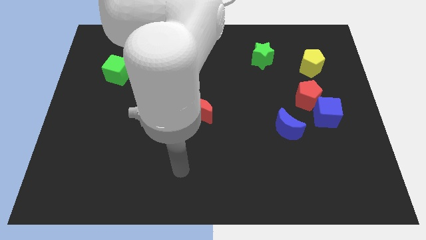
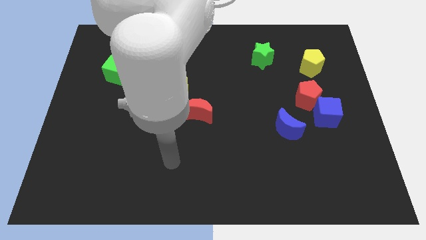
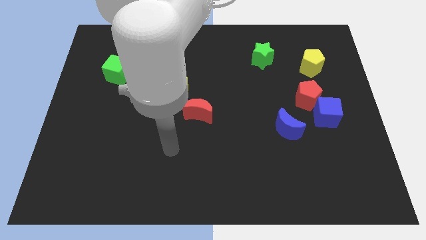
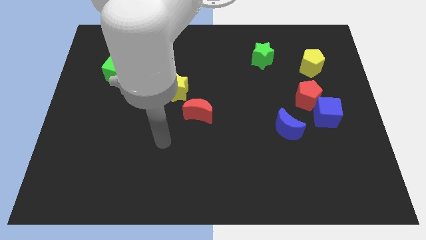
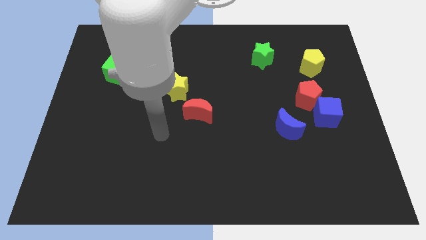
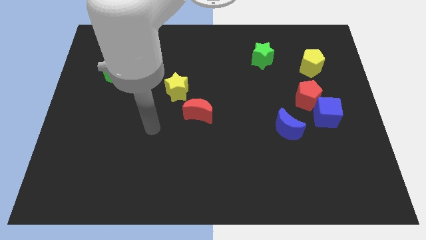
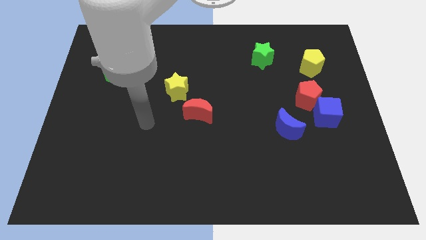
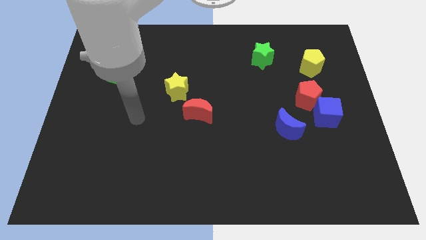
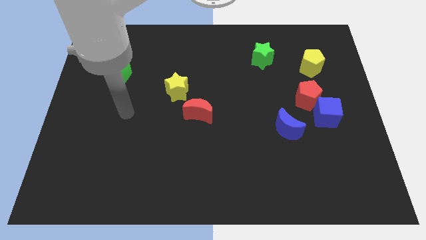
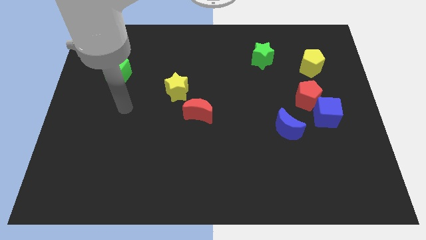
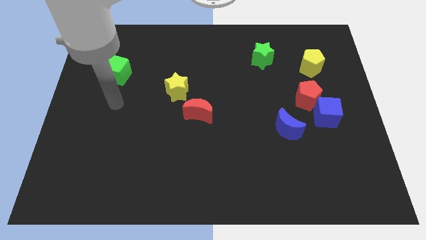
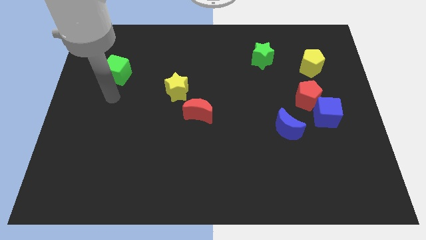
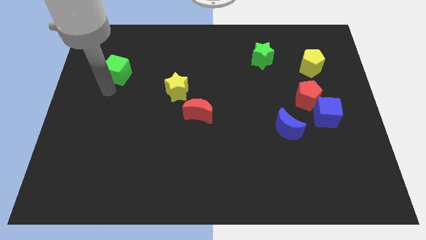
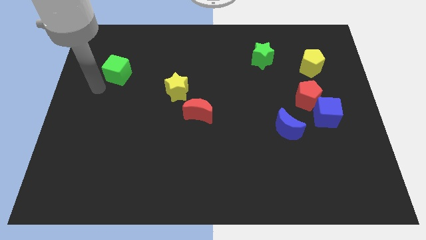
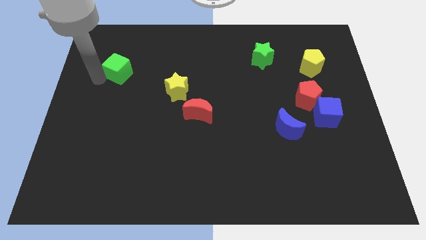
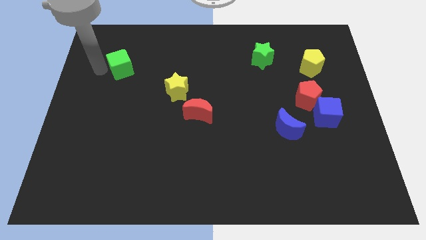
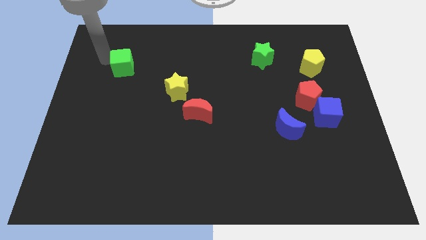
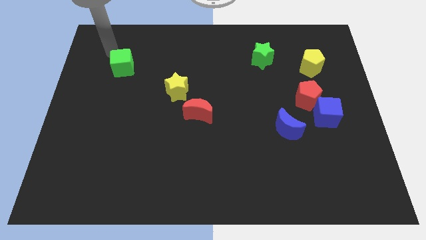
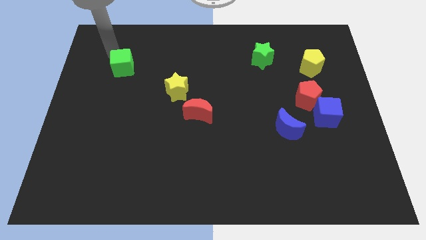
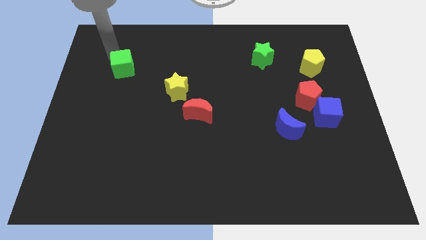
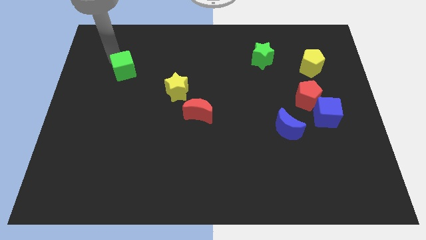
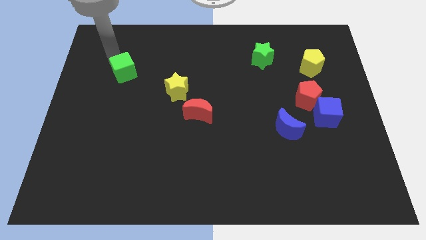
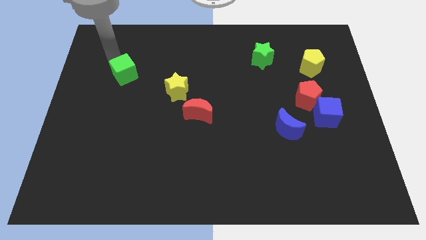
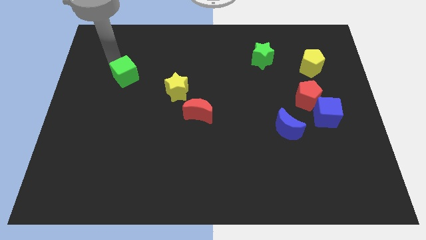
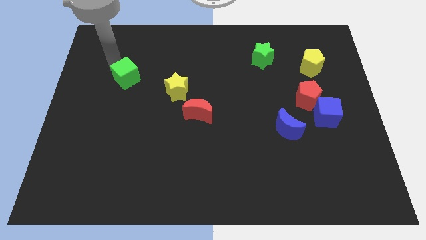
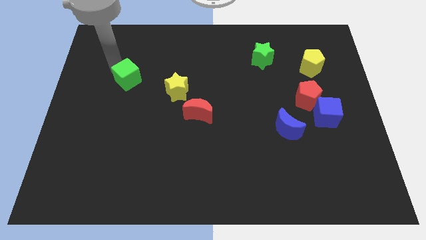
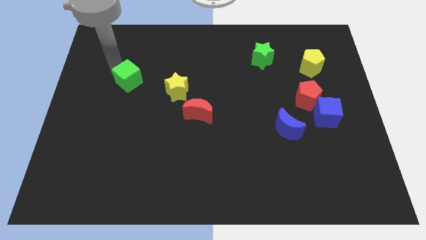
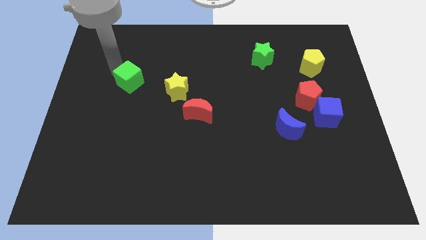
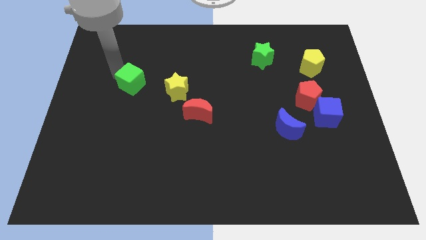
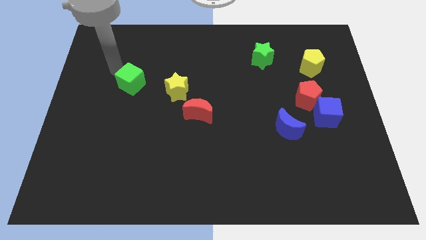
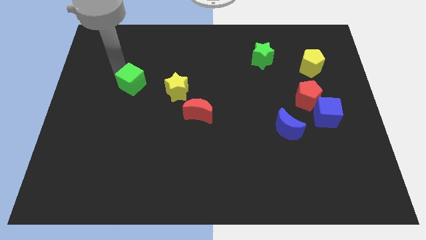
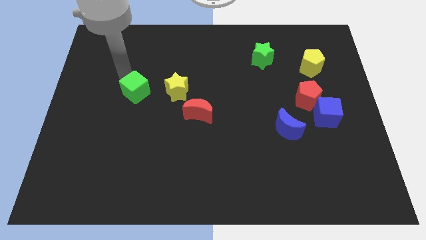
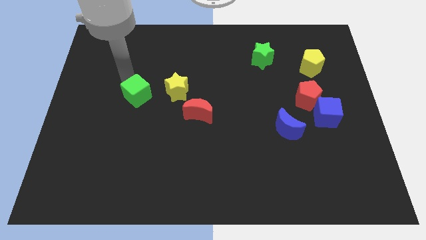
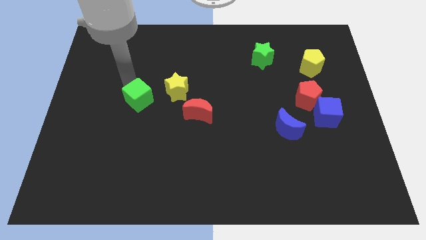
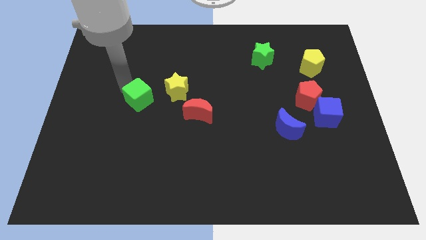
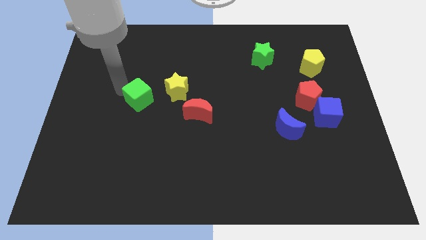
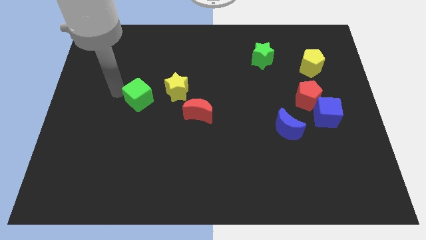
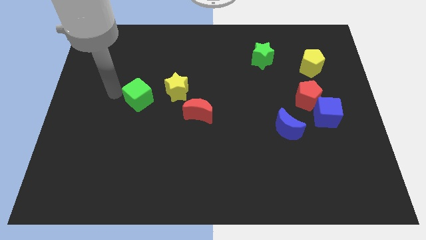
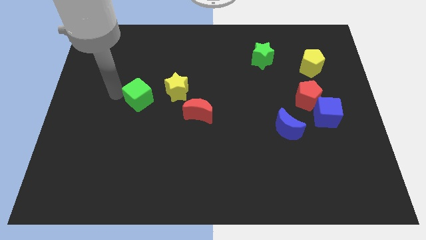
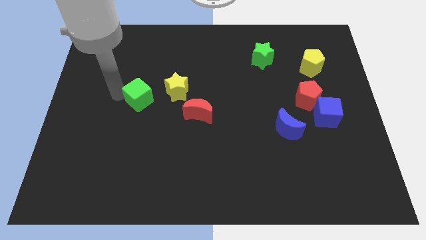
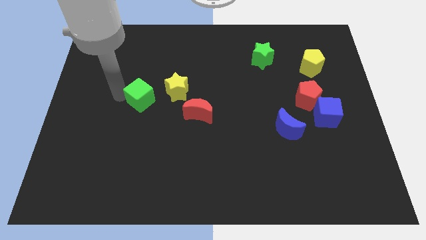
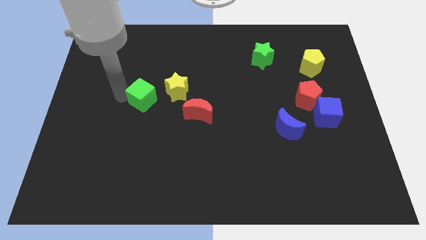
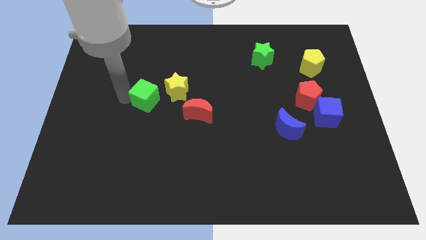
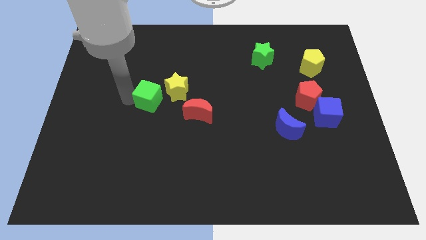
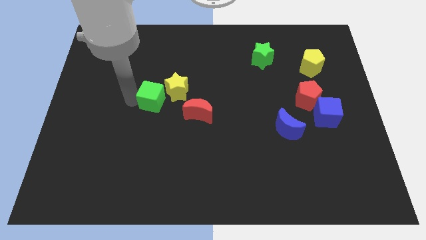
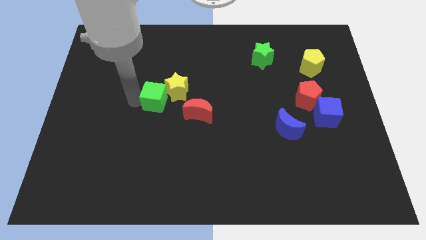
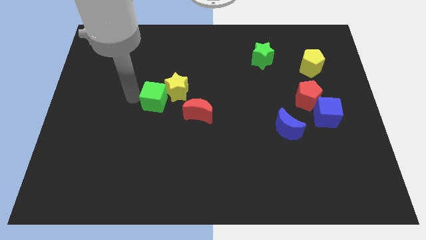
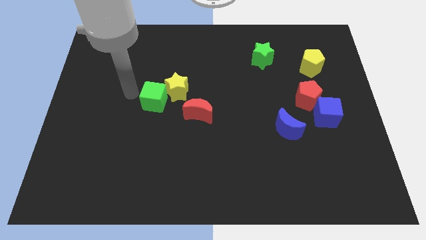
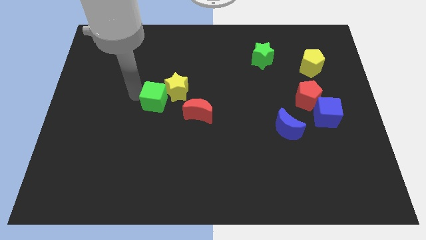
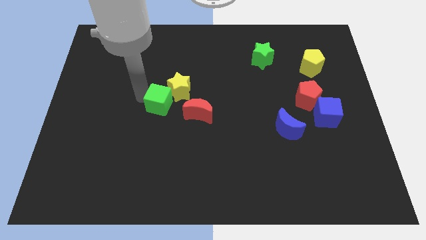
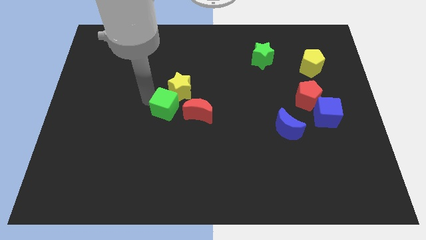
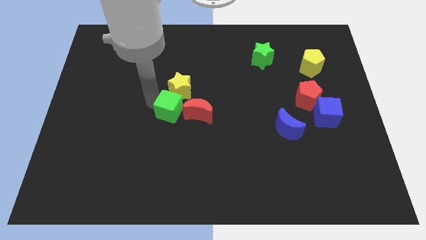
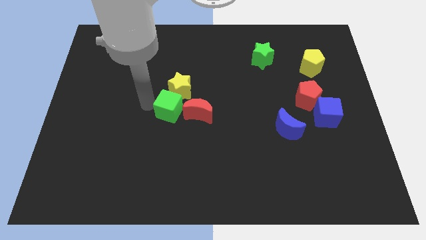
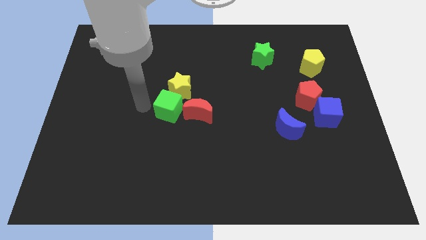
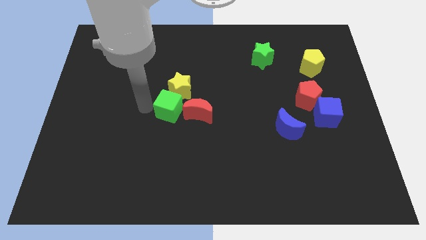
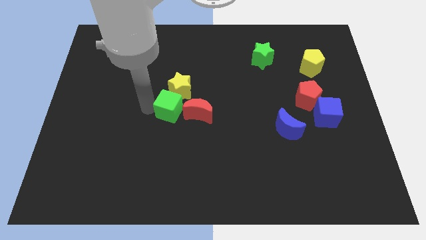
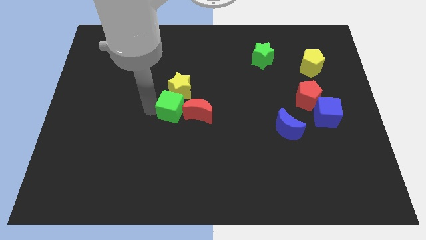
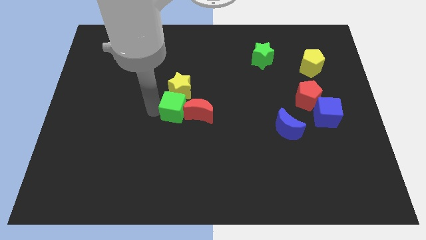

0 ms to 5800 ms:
slide the green cube next to the red moon
